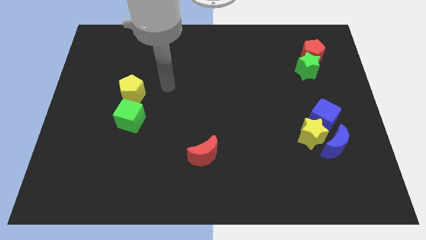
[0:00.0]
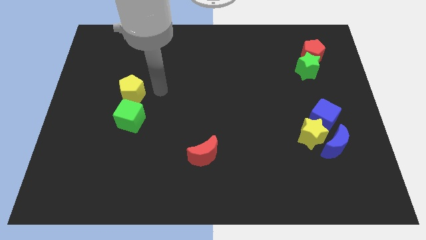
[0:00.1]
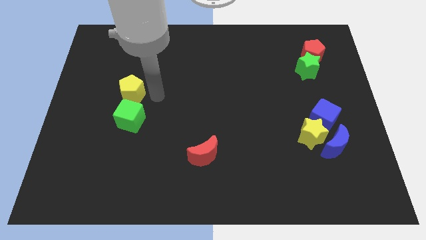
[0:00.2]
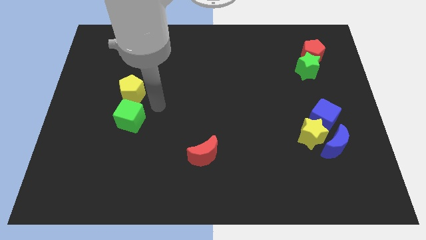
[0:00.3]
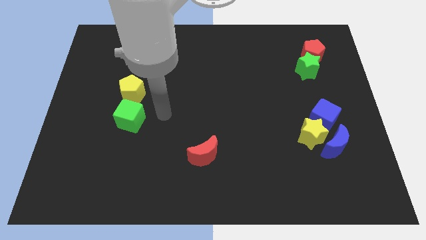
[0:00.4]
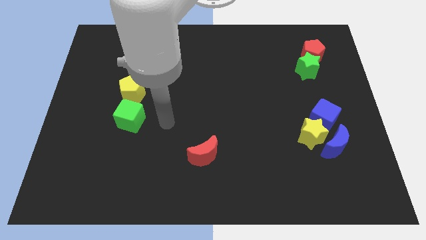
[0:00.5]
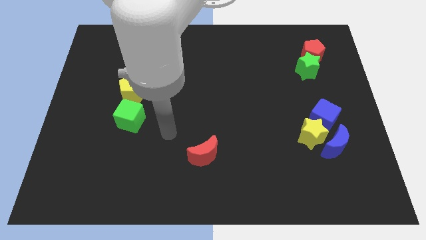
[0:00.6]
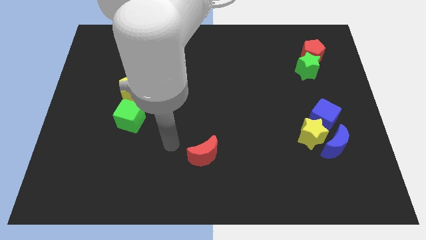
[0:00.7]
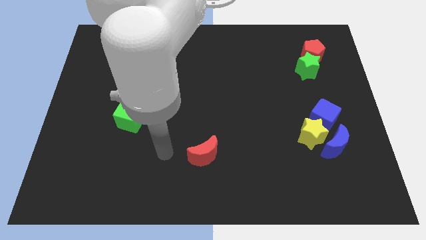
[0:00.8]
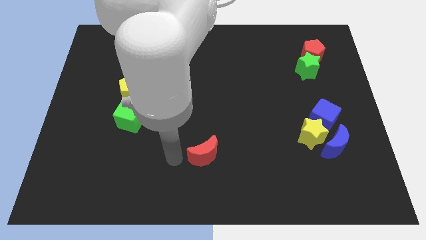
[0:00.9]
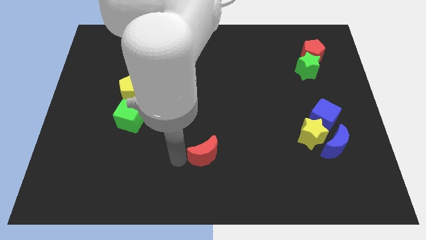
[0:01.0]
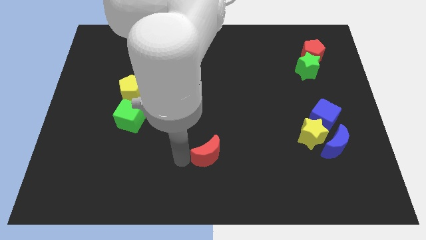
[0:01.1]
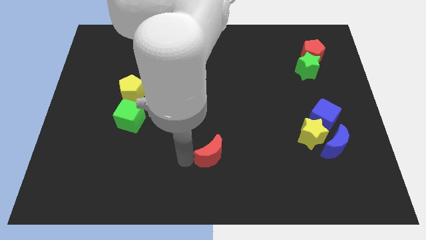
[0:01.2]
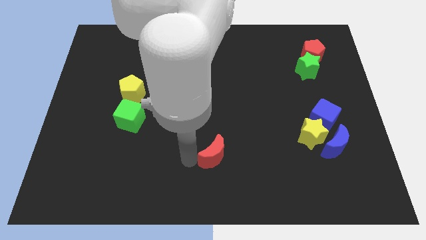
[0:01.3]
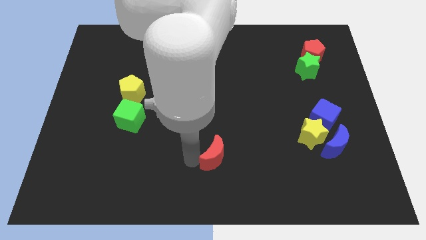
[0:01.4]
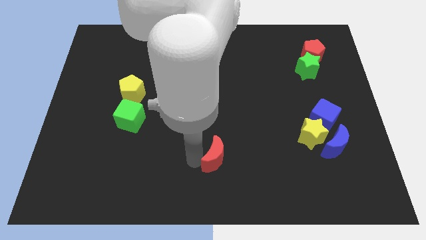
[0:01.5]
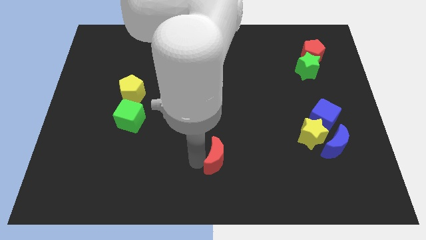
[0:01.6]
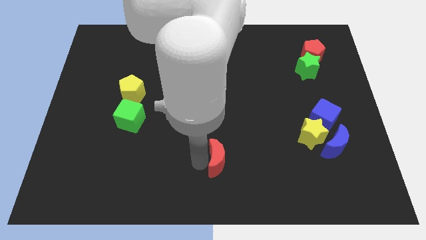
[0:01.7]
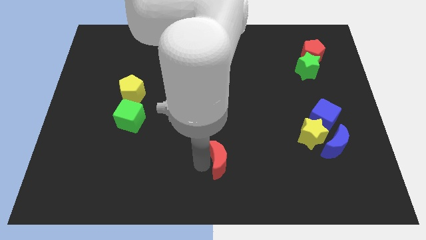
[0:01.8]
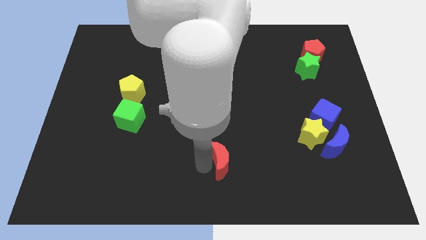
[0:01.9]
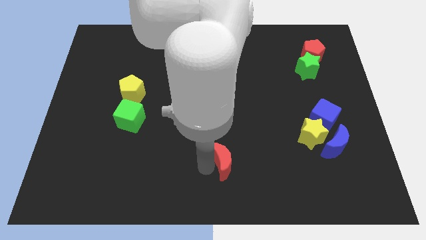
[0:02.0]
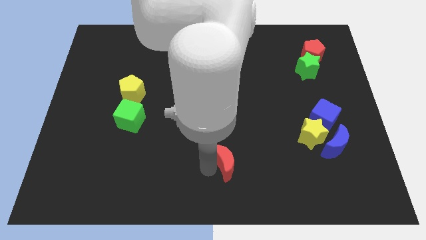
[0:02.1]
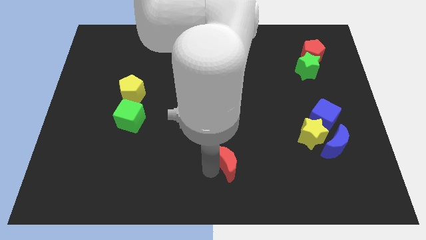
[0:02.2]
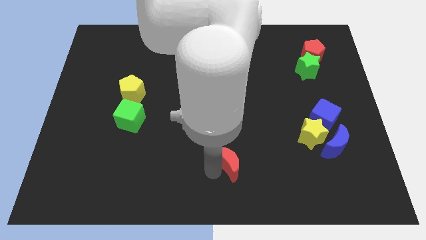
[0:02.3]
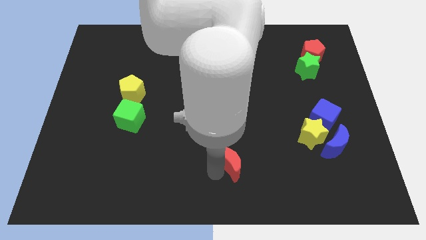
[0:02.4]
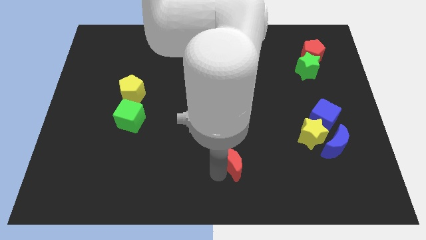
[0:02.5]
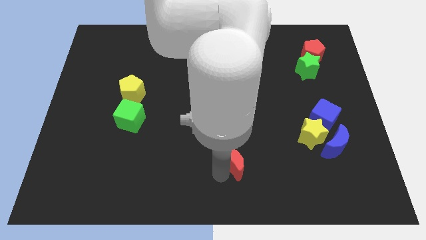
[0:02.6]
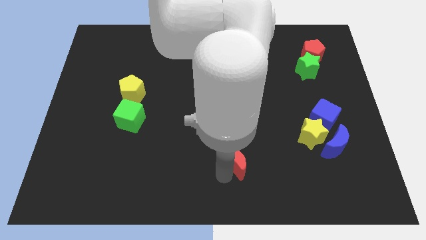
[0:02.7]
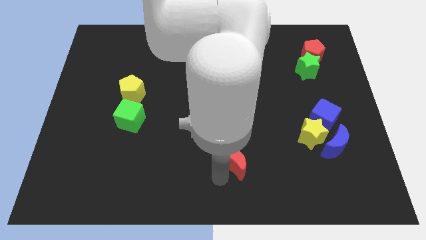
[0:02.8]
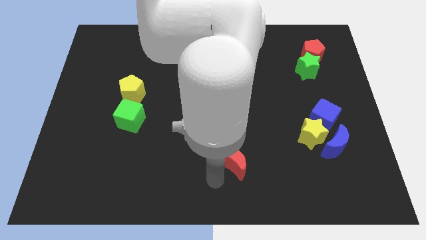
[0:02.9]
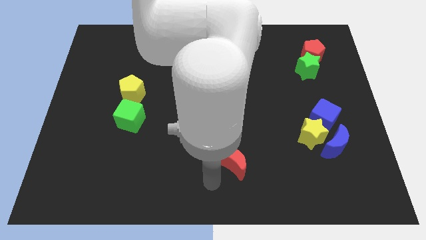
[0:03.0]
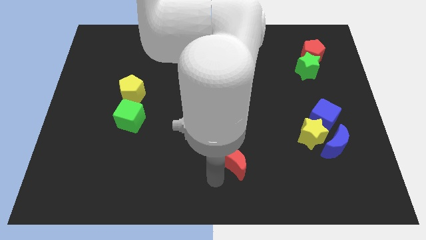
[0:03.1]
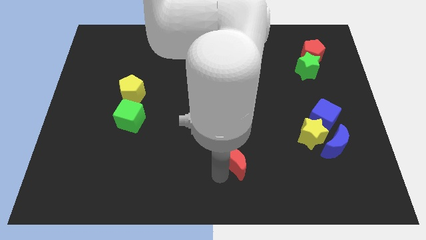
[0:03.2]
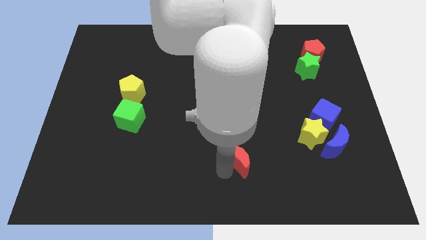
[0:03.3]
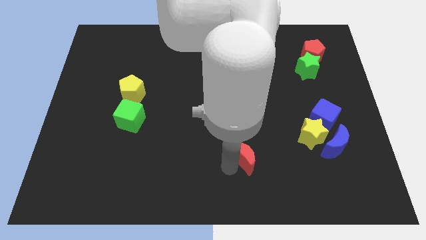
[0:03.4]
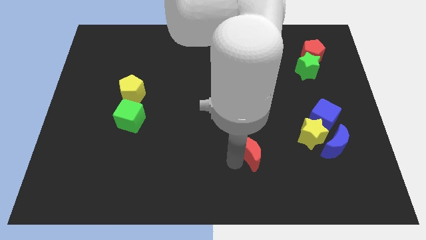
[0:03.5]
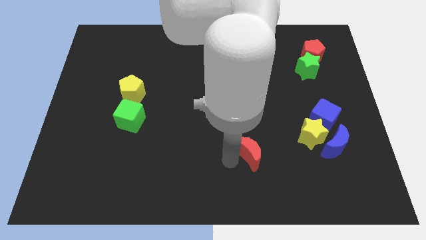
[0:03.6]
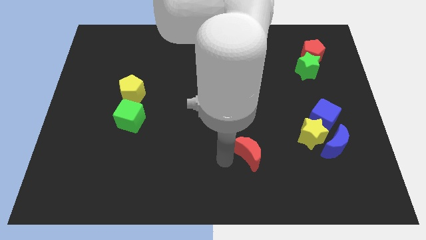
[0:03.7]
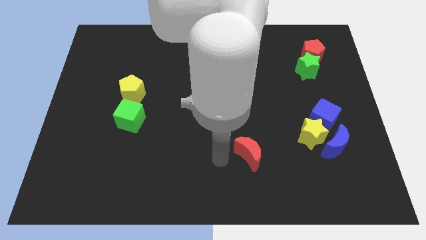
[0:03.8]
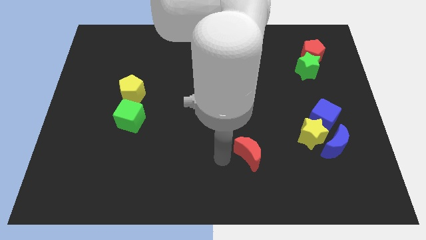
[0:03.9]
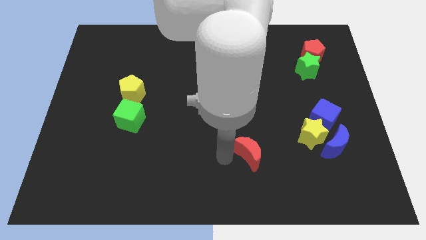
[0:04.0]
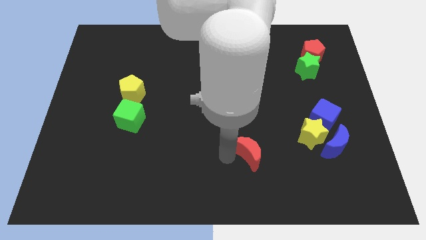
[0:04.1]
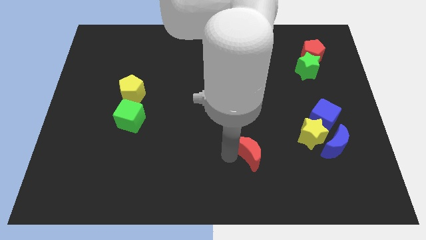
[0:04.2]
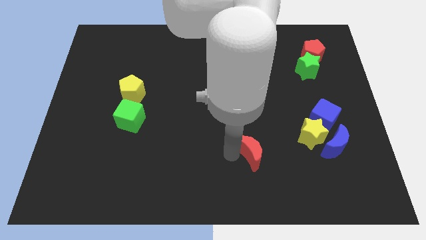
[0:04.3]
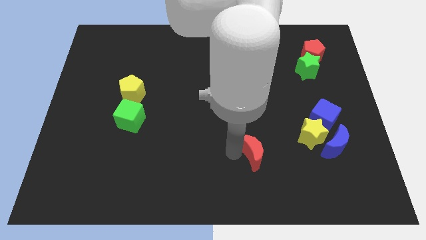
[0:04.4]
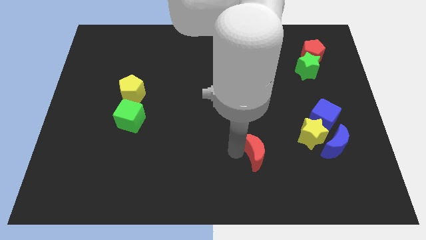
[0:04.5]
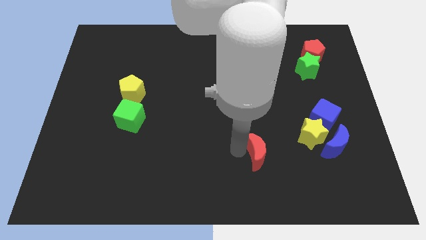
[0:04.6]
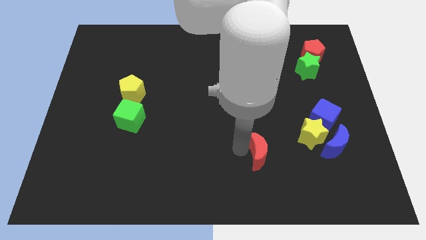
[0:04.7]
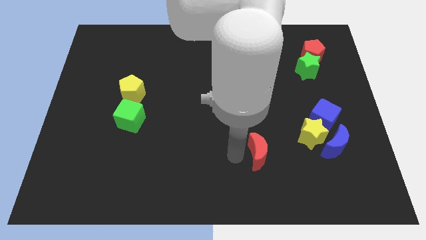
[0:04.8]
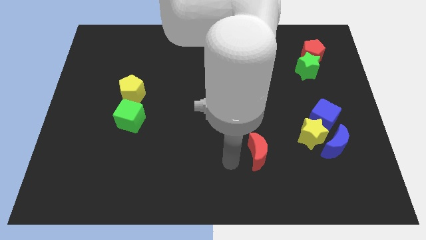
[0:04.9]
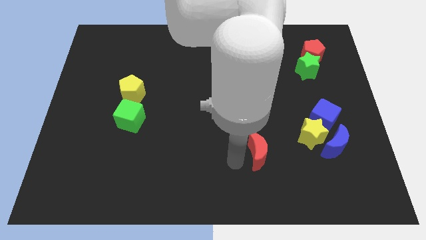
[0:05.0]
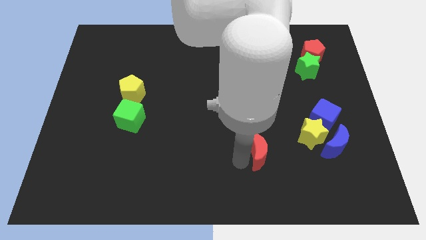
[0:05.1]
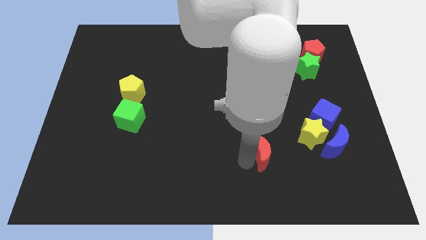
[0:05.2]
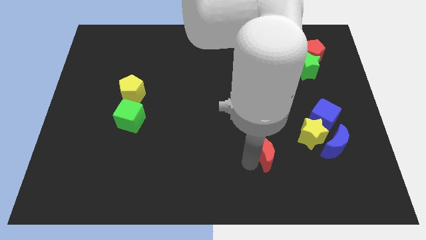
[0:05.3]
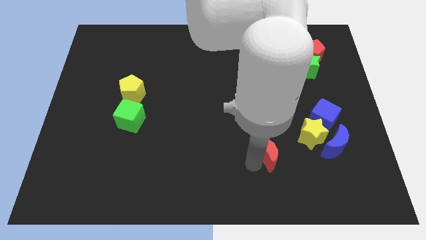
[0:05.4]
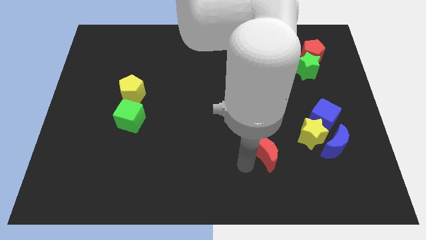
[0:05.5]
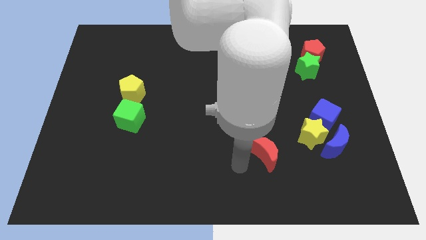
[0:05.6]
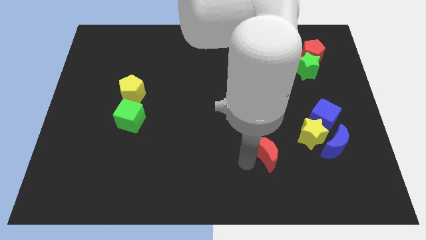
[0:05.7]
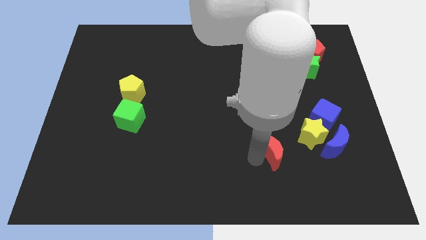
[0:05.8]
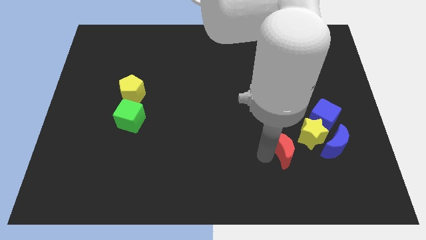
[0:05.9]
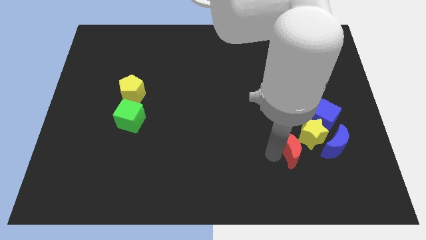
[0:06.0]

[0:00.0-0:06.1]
move the red moon diagonally down and to the left of the blue cube

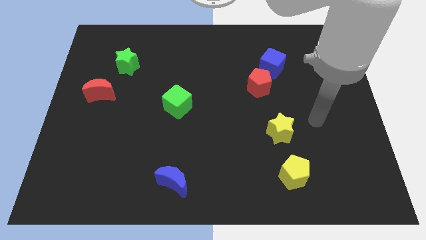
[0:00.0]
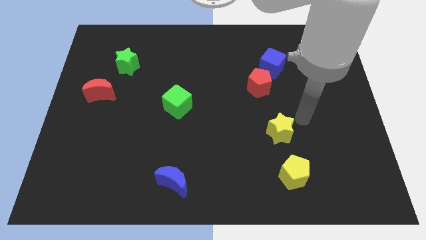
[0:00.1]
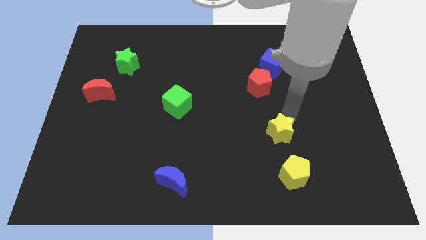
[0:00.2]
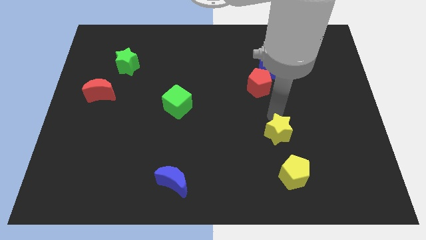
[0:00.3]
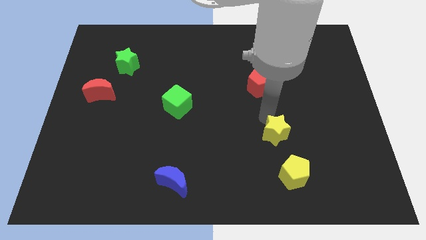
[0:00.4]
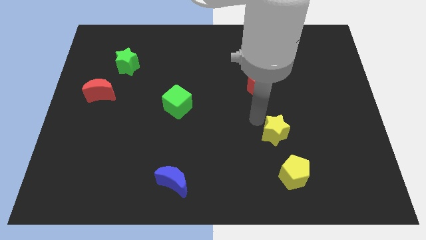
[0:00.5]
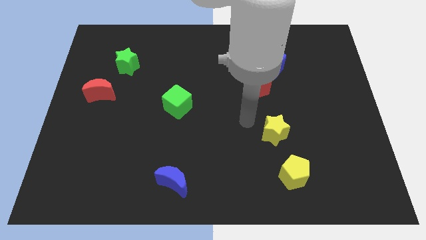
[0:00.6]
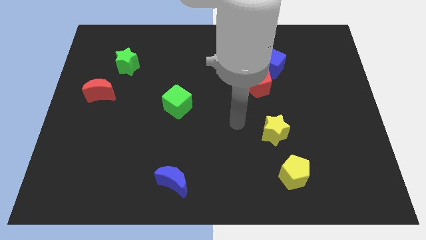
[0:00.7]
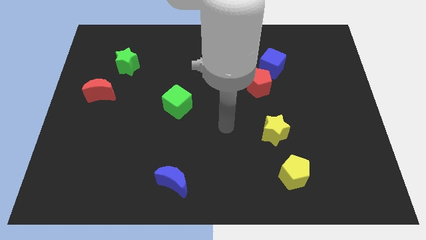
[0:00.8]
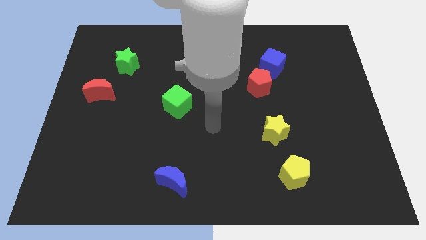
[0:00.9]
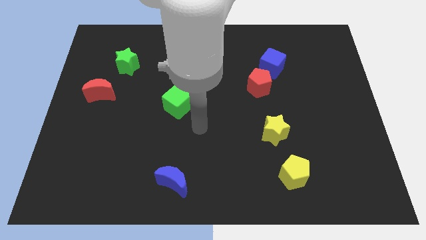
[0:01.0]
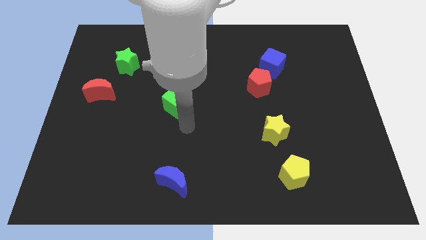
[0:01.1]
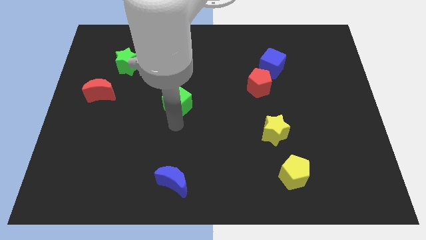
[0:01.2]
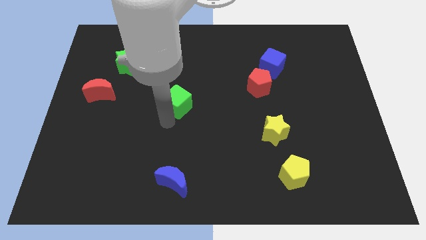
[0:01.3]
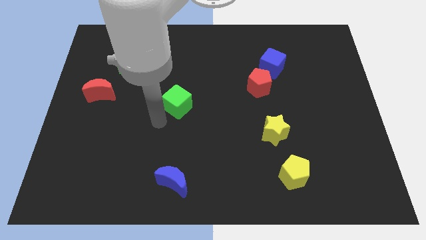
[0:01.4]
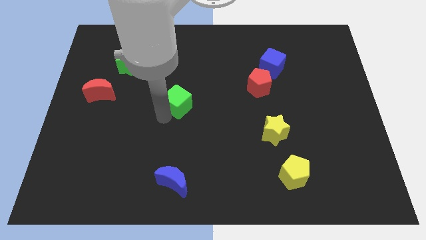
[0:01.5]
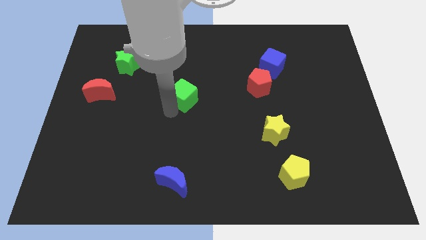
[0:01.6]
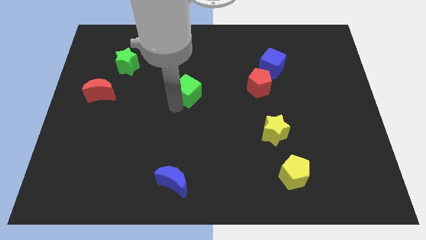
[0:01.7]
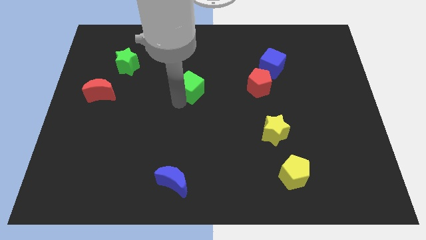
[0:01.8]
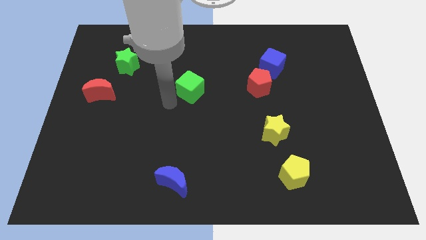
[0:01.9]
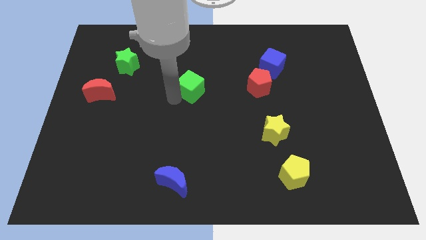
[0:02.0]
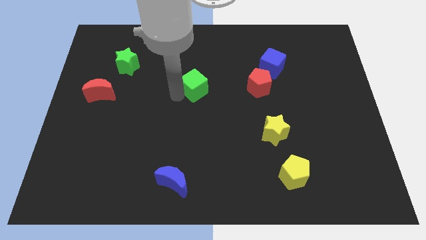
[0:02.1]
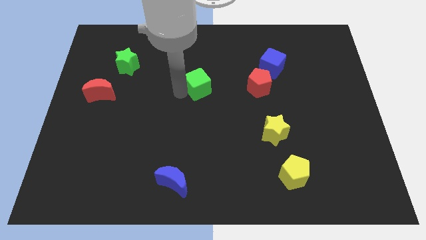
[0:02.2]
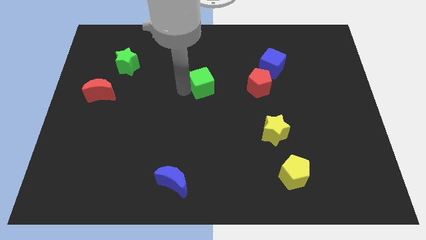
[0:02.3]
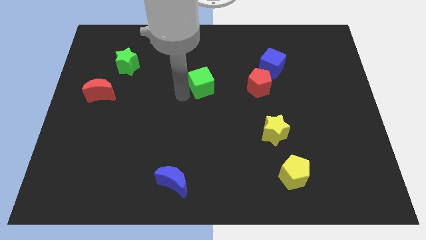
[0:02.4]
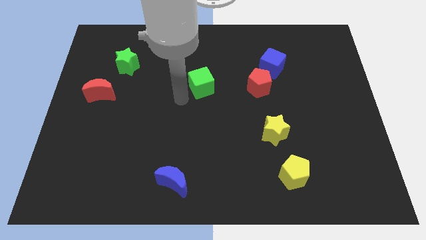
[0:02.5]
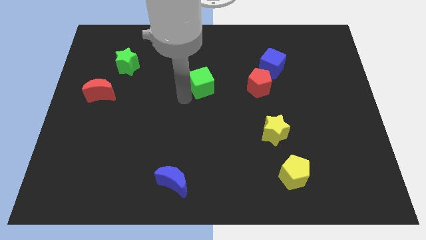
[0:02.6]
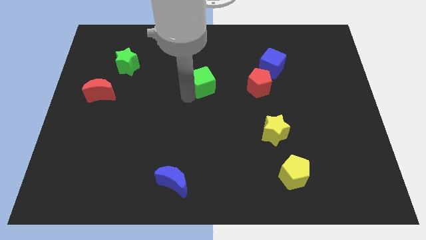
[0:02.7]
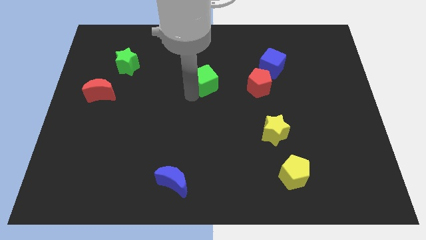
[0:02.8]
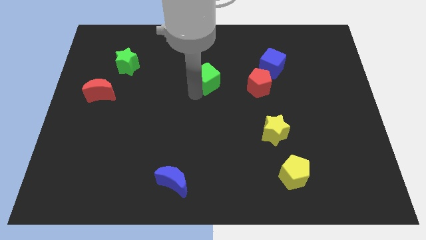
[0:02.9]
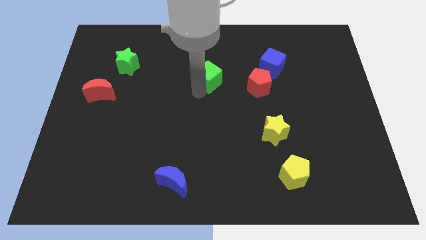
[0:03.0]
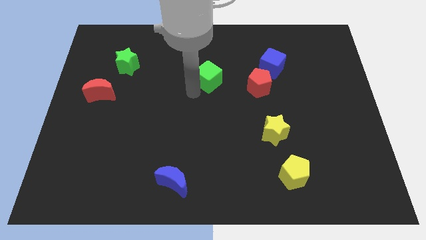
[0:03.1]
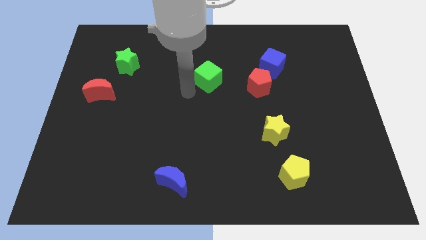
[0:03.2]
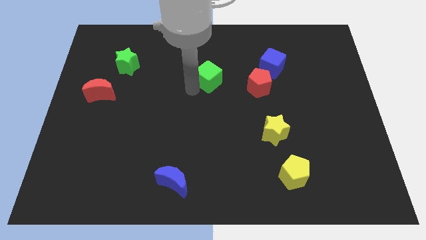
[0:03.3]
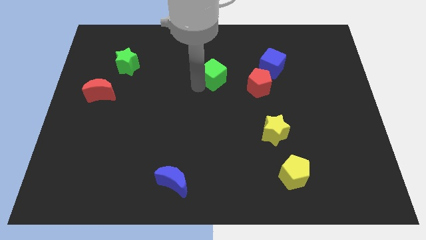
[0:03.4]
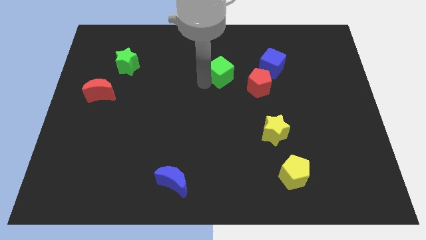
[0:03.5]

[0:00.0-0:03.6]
put the green cube left of the blue cube
